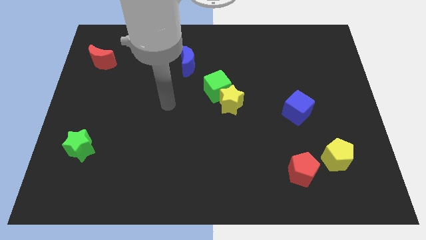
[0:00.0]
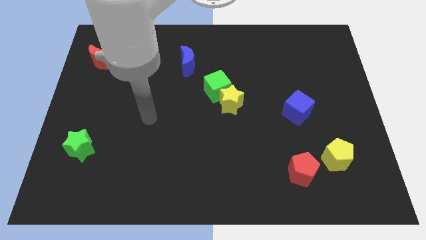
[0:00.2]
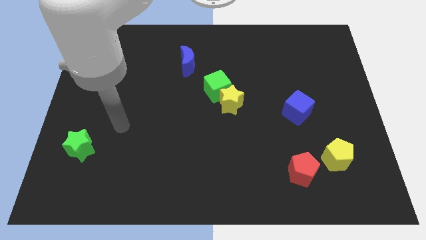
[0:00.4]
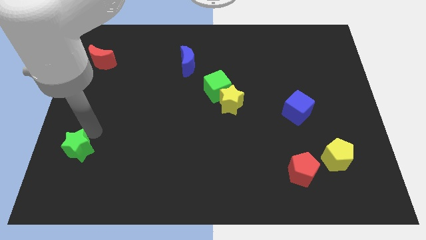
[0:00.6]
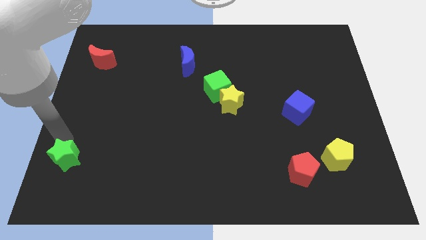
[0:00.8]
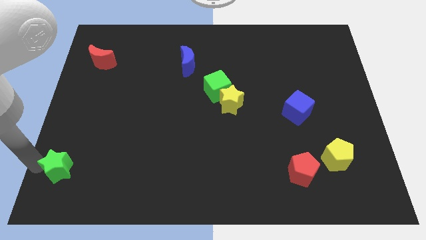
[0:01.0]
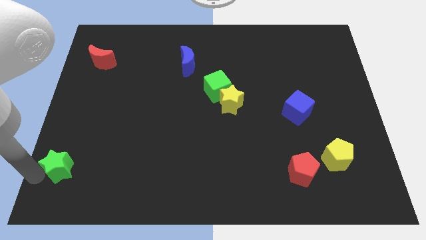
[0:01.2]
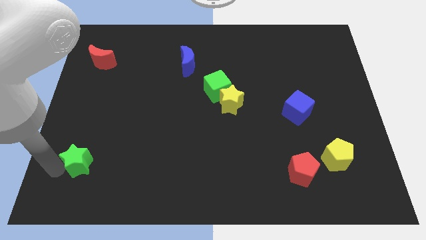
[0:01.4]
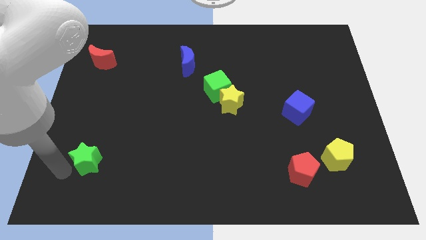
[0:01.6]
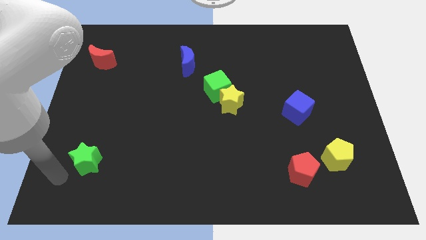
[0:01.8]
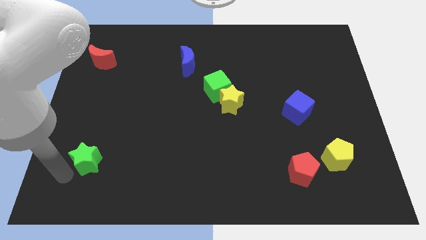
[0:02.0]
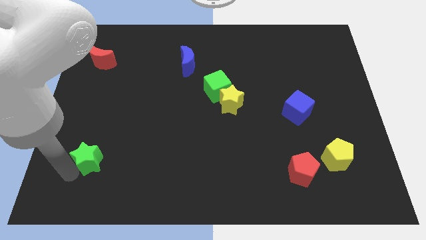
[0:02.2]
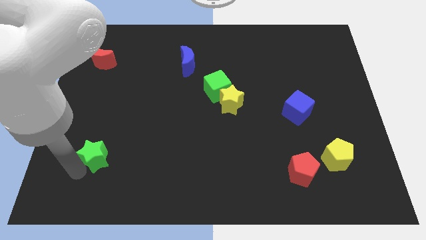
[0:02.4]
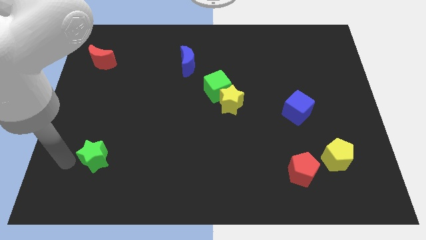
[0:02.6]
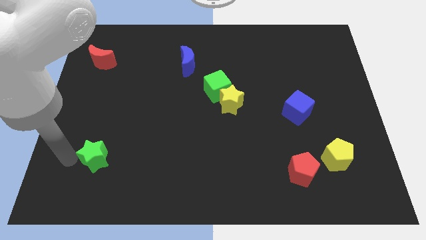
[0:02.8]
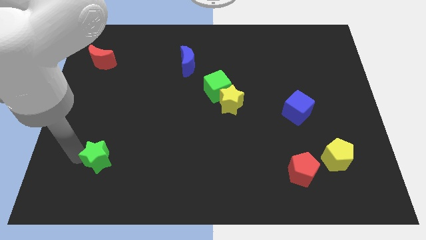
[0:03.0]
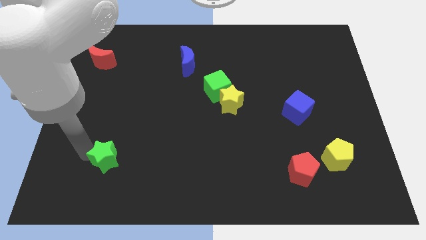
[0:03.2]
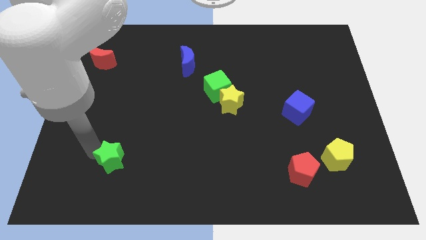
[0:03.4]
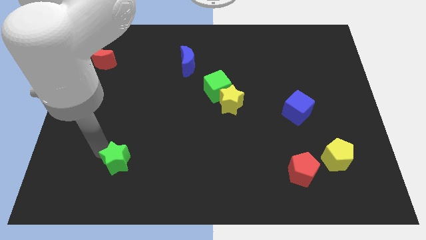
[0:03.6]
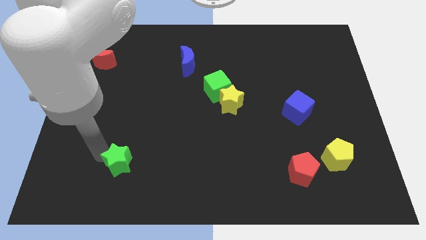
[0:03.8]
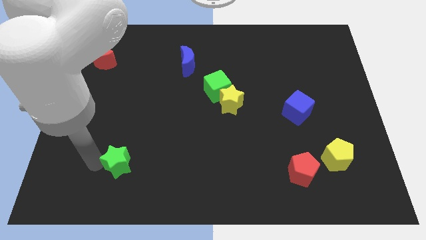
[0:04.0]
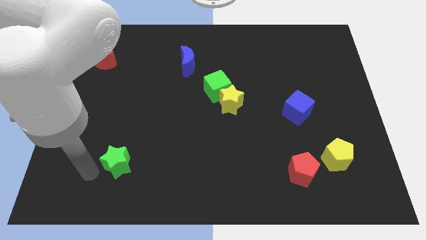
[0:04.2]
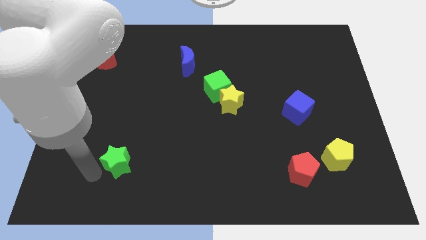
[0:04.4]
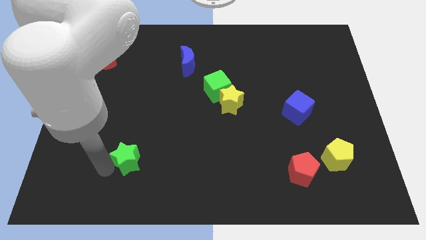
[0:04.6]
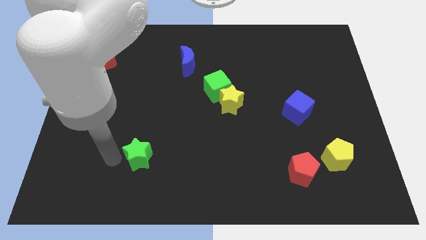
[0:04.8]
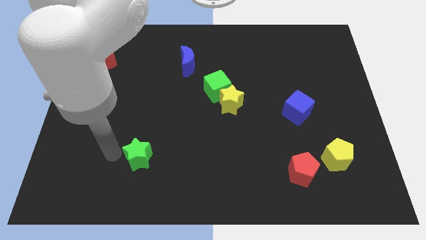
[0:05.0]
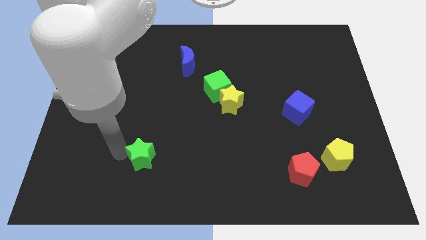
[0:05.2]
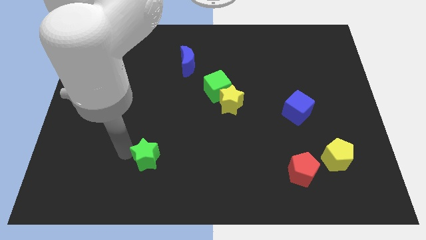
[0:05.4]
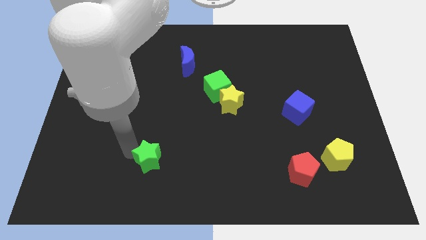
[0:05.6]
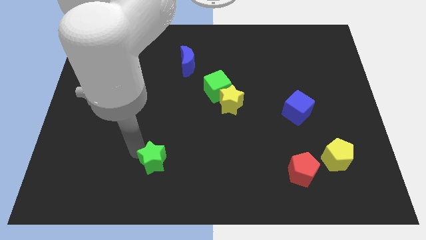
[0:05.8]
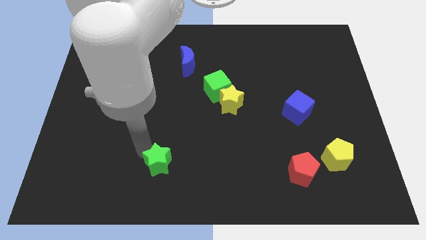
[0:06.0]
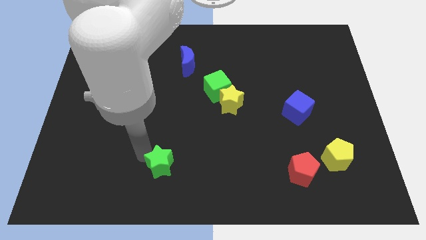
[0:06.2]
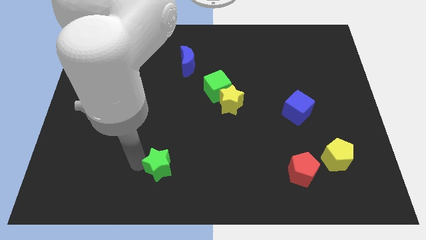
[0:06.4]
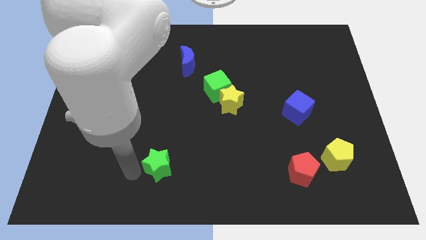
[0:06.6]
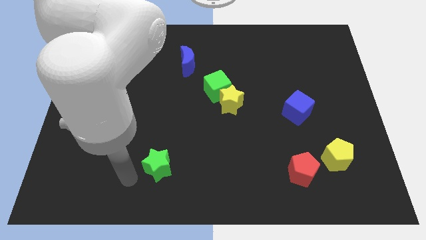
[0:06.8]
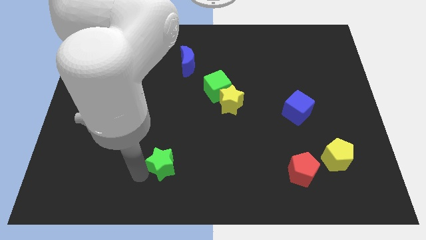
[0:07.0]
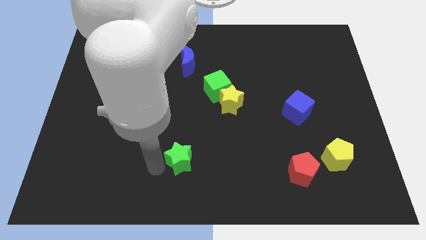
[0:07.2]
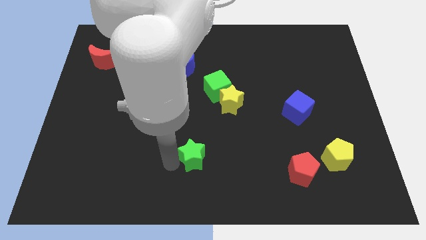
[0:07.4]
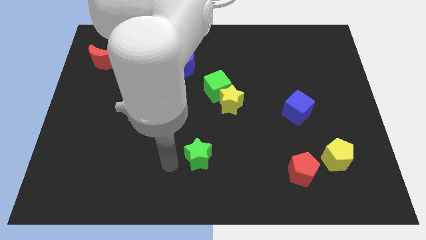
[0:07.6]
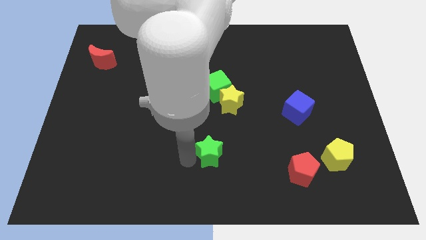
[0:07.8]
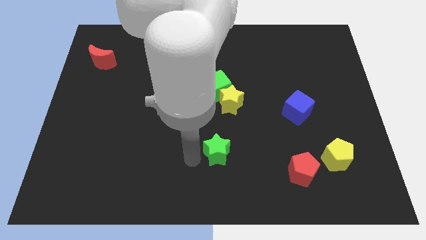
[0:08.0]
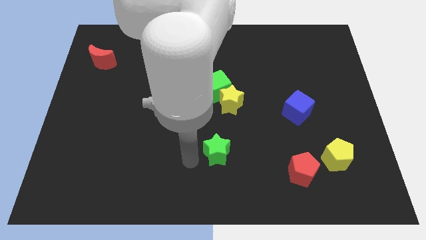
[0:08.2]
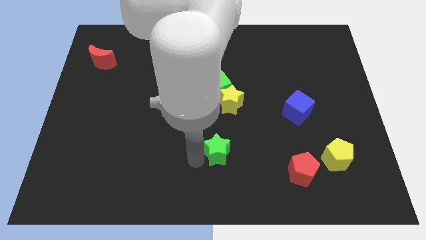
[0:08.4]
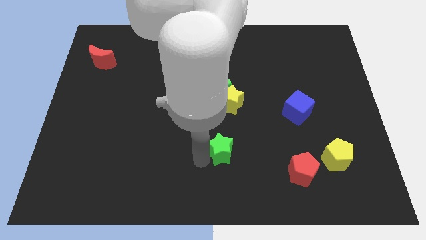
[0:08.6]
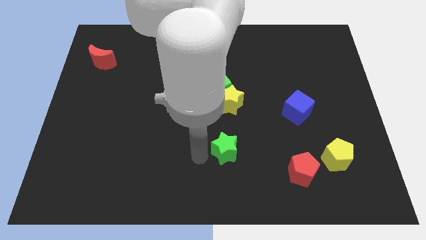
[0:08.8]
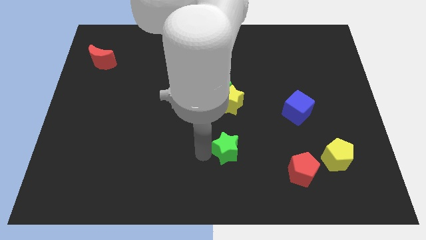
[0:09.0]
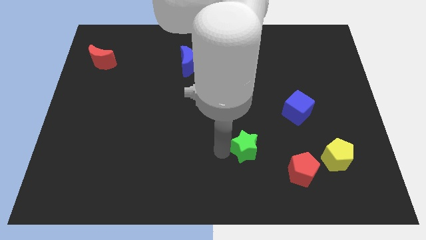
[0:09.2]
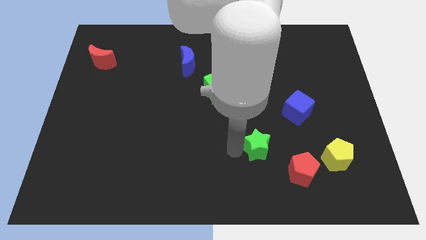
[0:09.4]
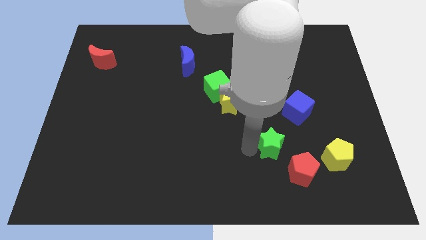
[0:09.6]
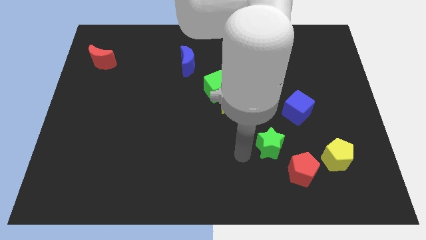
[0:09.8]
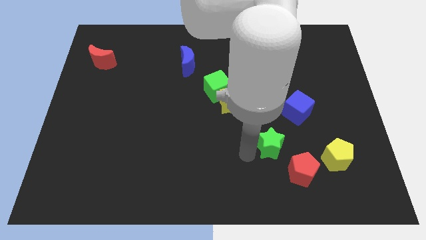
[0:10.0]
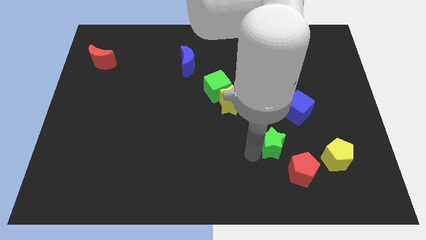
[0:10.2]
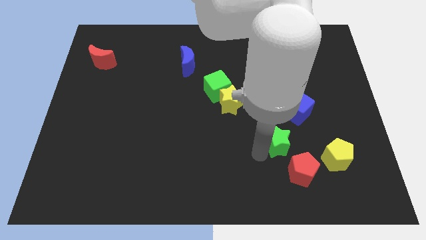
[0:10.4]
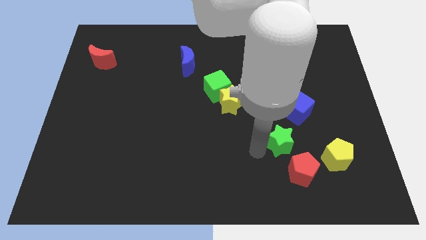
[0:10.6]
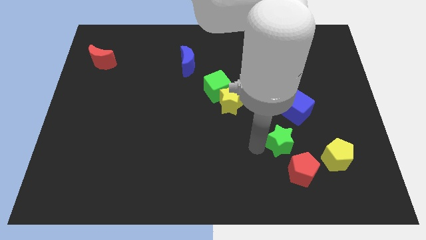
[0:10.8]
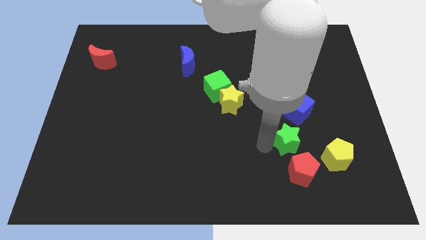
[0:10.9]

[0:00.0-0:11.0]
put the green star to the top left of the yellow pentagon

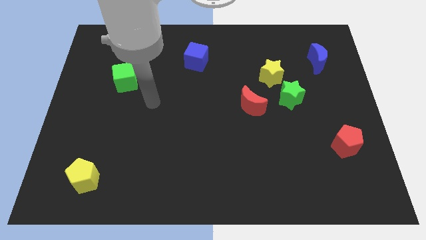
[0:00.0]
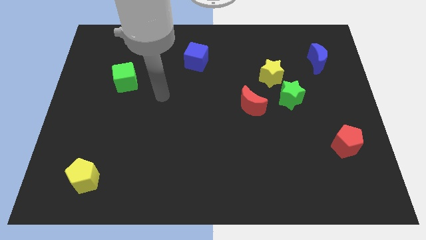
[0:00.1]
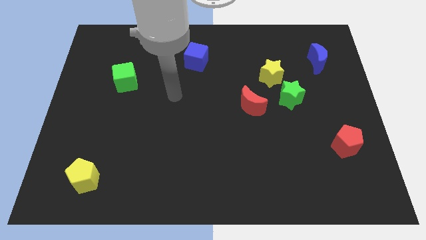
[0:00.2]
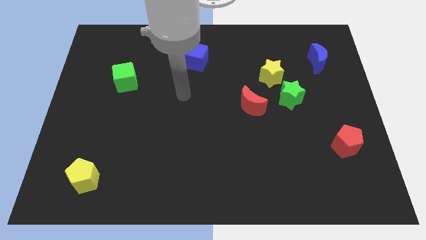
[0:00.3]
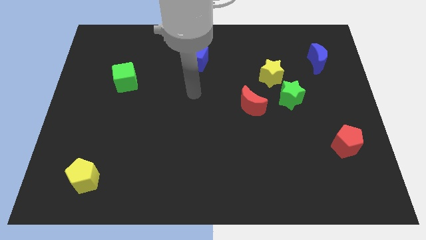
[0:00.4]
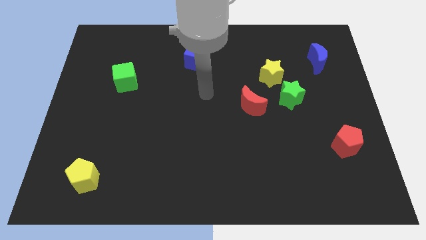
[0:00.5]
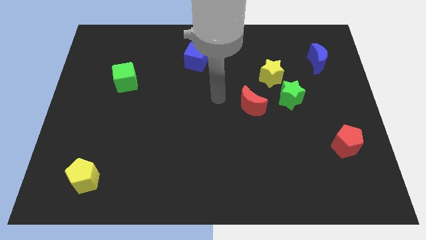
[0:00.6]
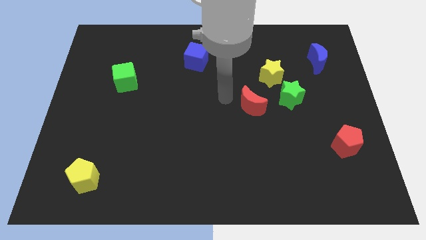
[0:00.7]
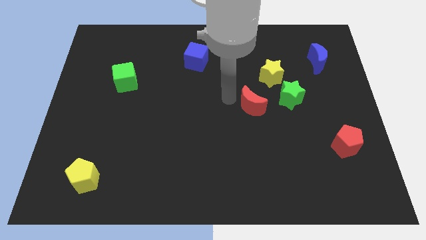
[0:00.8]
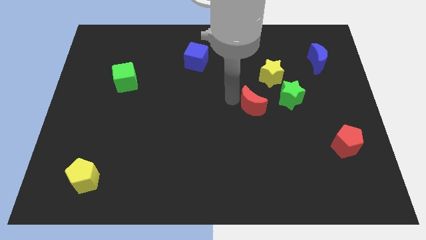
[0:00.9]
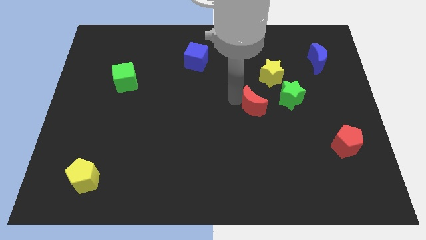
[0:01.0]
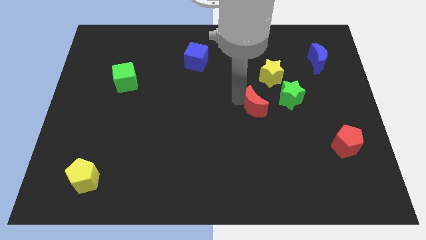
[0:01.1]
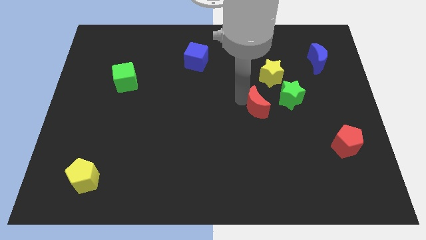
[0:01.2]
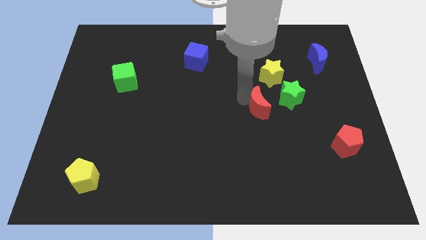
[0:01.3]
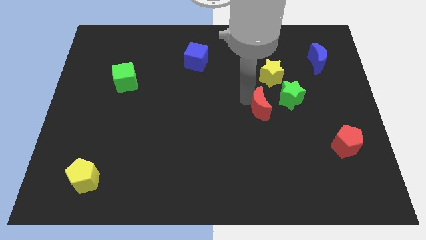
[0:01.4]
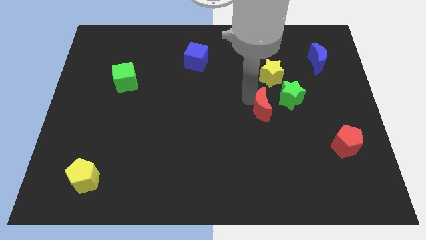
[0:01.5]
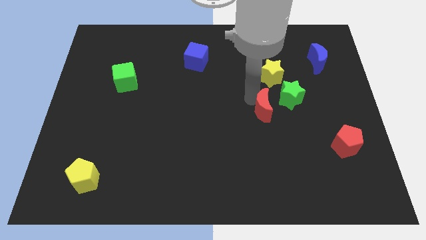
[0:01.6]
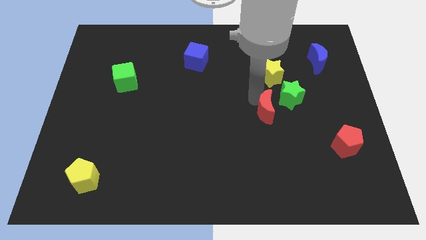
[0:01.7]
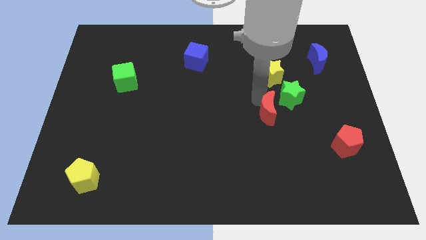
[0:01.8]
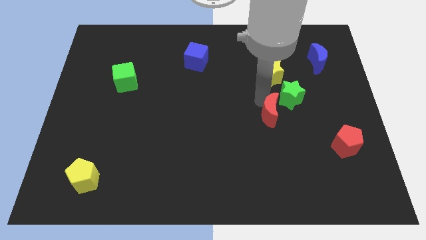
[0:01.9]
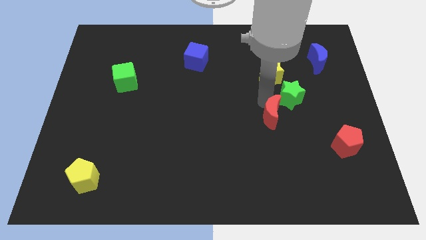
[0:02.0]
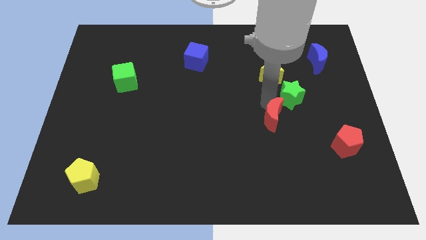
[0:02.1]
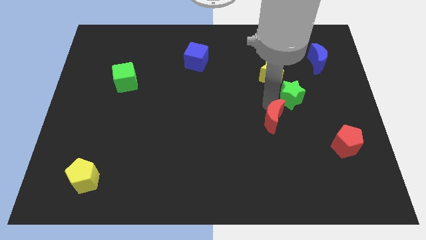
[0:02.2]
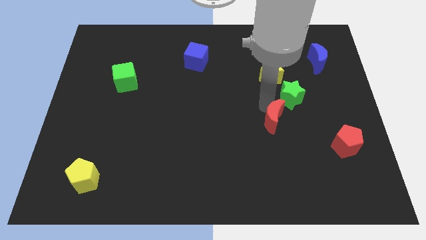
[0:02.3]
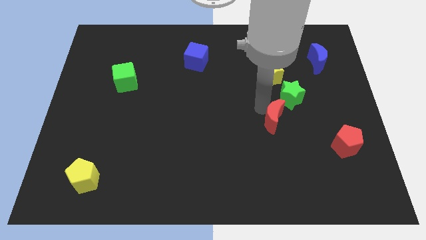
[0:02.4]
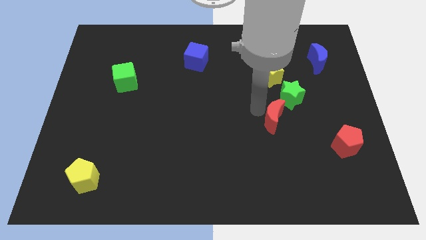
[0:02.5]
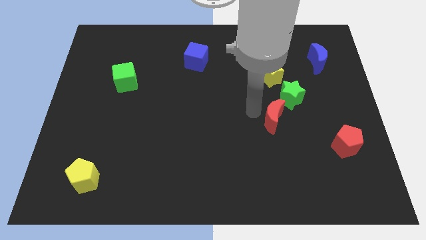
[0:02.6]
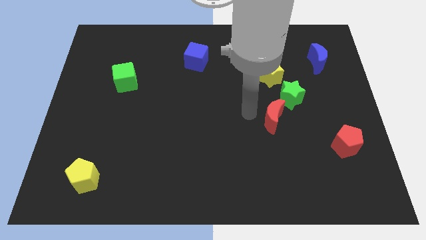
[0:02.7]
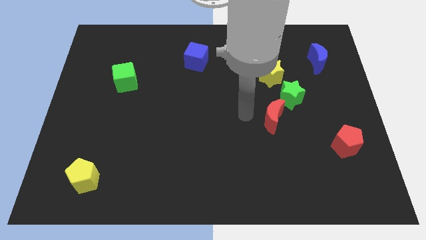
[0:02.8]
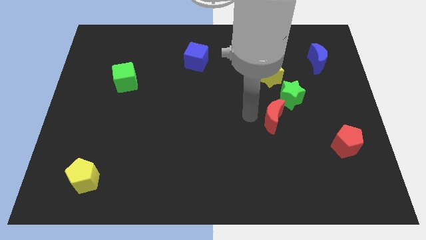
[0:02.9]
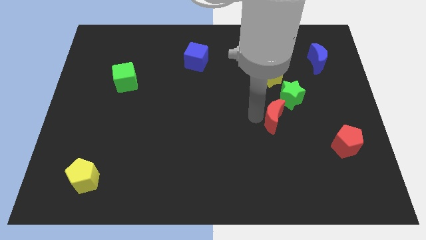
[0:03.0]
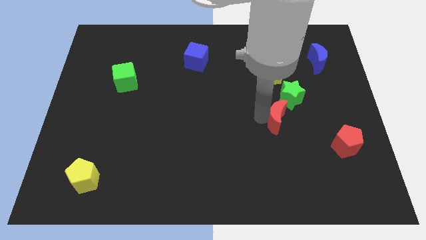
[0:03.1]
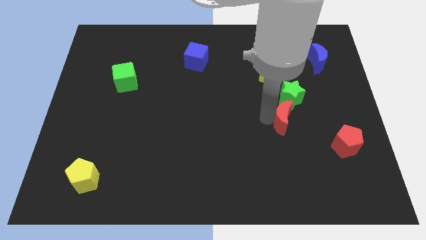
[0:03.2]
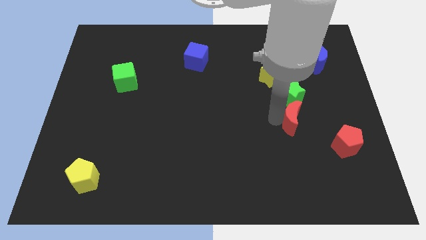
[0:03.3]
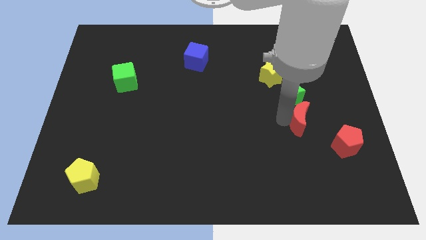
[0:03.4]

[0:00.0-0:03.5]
push the red moon to the top left of the red pentagon
